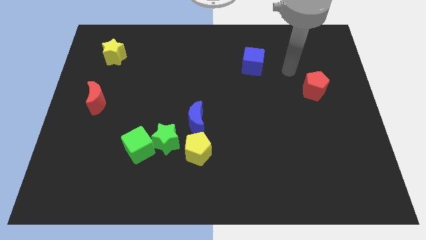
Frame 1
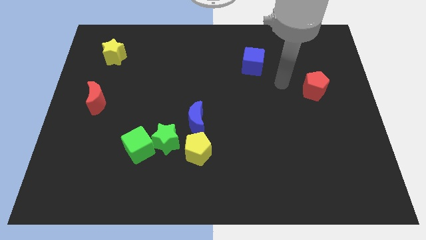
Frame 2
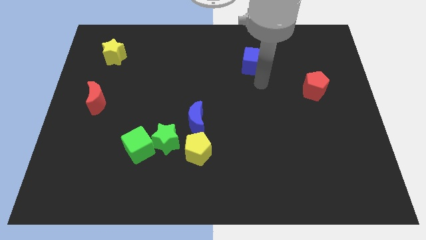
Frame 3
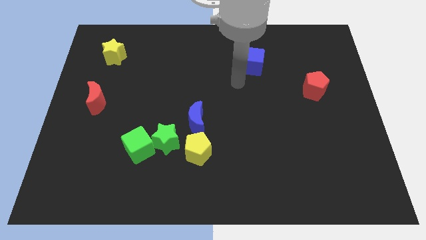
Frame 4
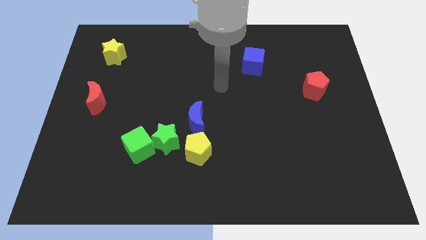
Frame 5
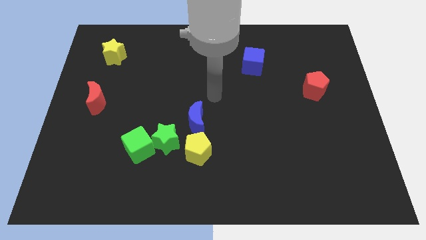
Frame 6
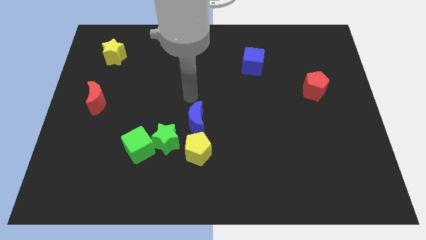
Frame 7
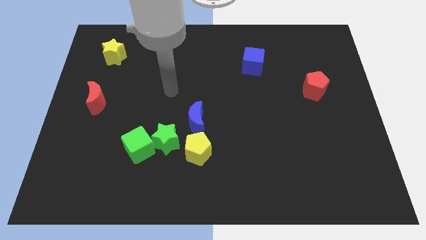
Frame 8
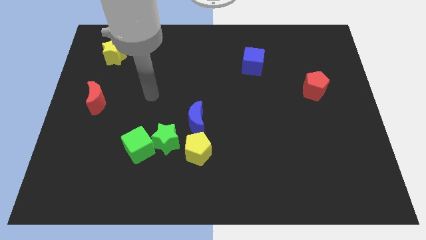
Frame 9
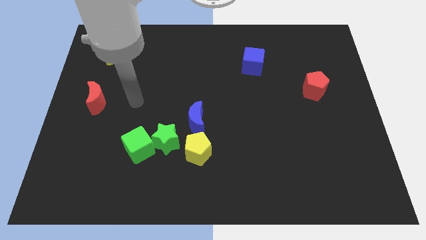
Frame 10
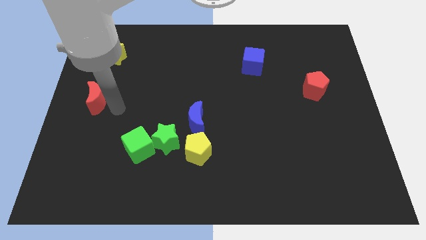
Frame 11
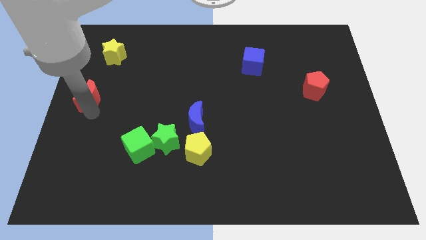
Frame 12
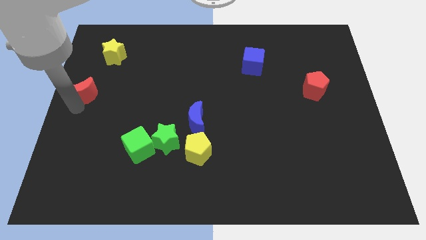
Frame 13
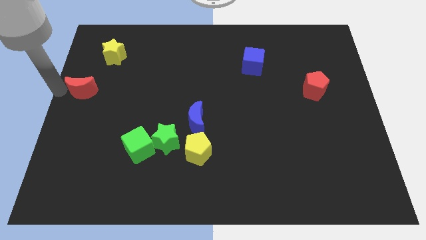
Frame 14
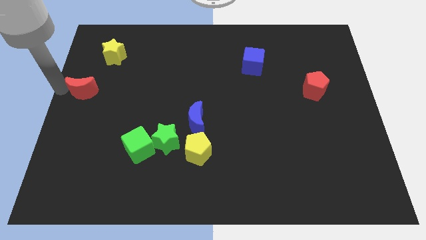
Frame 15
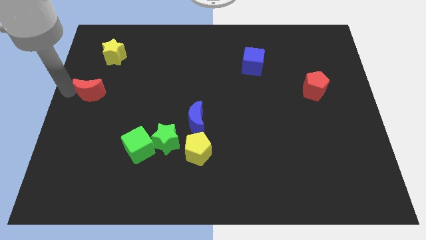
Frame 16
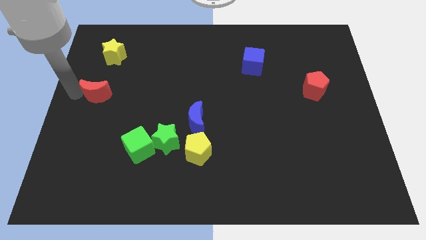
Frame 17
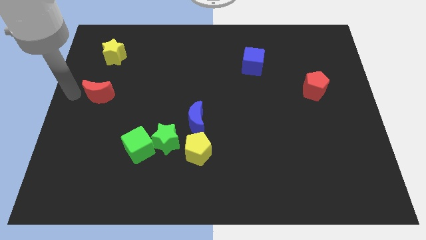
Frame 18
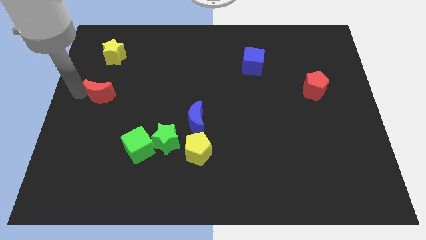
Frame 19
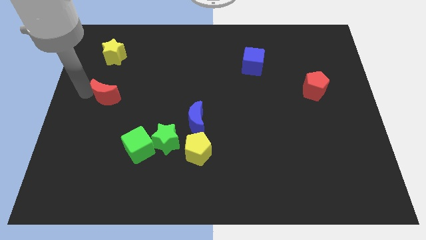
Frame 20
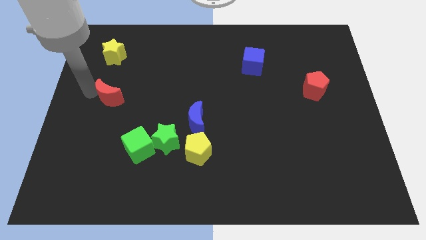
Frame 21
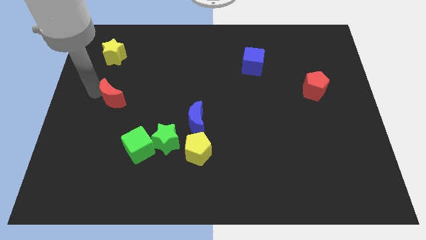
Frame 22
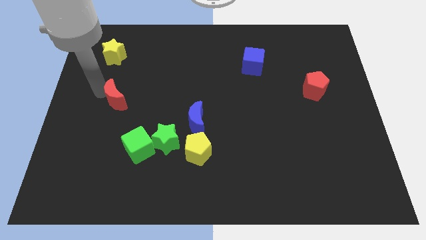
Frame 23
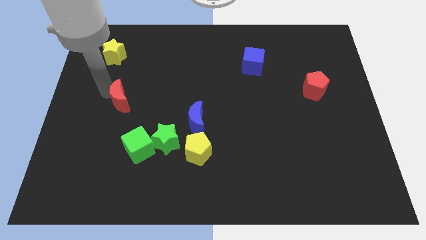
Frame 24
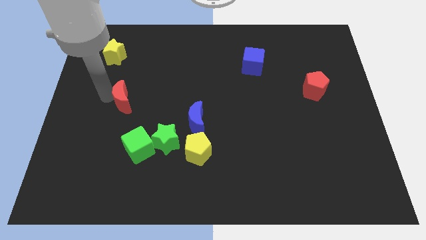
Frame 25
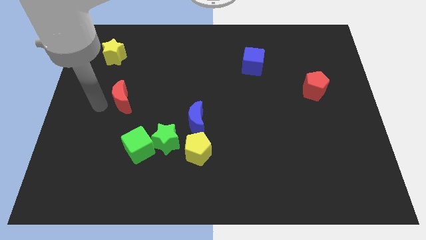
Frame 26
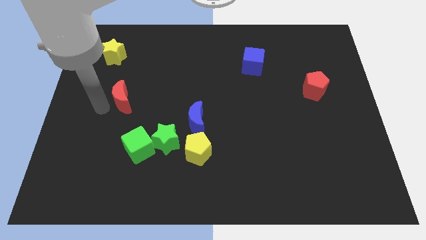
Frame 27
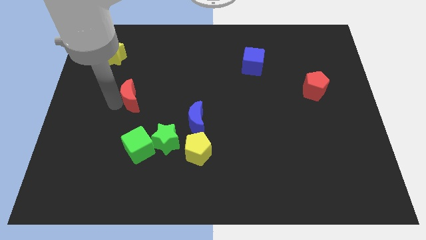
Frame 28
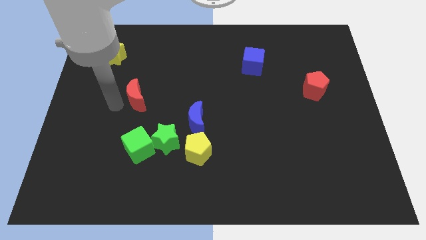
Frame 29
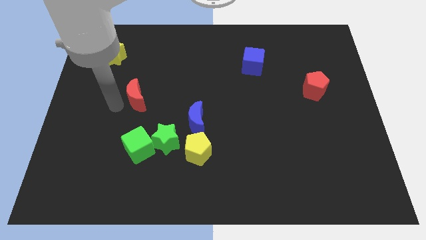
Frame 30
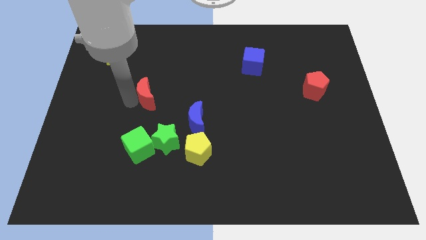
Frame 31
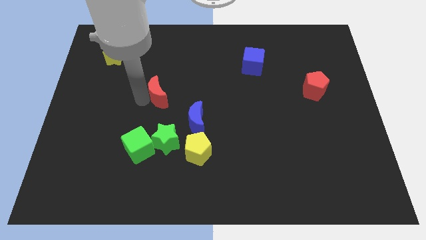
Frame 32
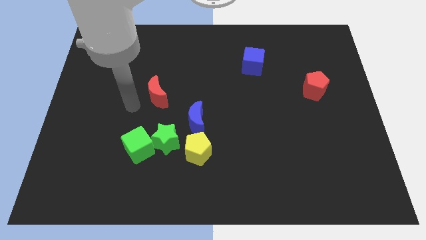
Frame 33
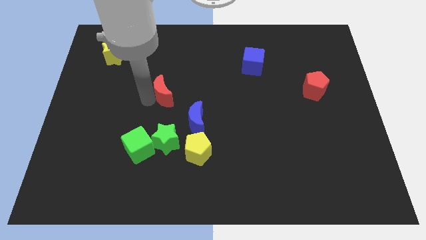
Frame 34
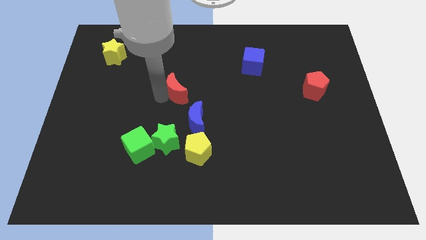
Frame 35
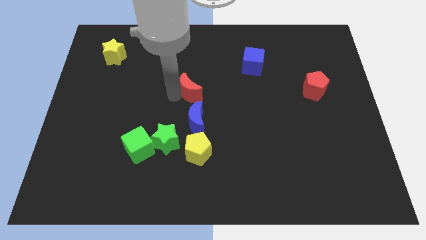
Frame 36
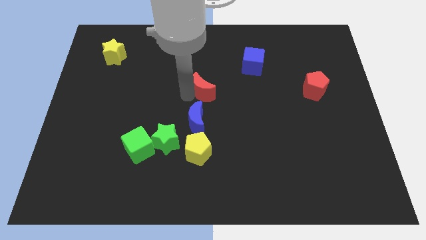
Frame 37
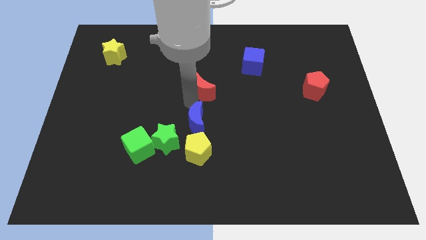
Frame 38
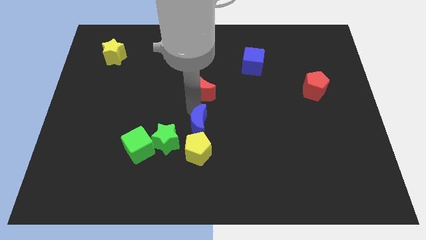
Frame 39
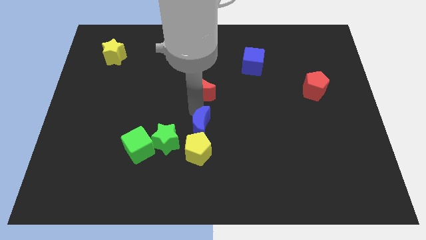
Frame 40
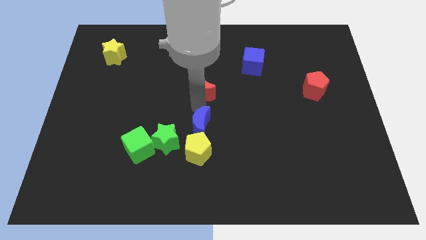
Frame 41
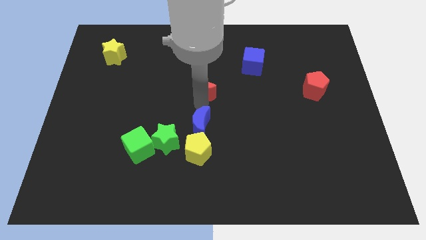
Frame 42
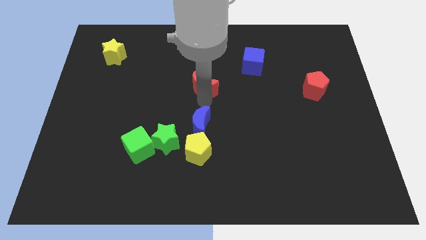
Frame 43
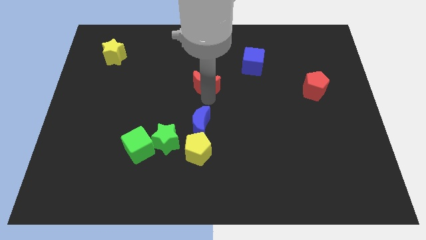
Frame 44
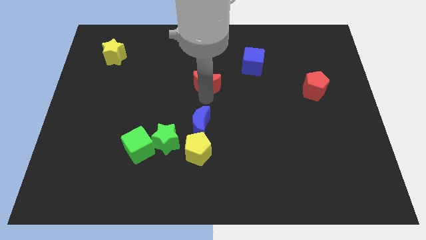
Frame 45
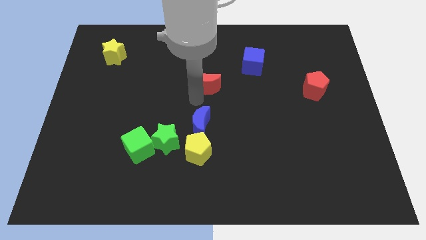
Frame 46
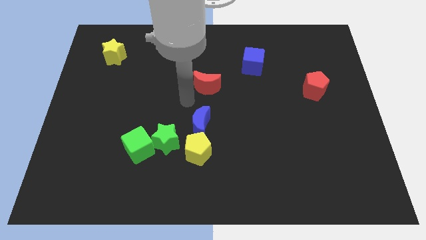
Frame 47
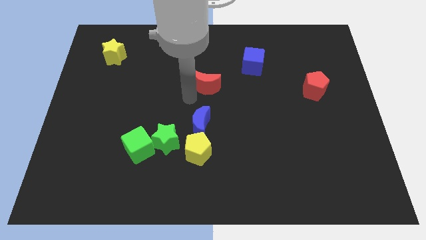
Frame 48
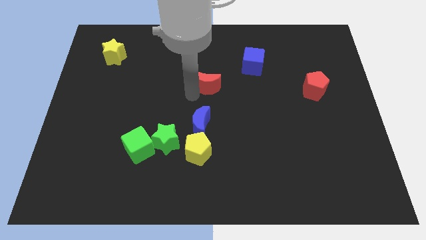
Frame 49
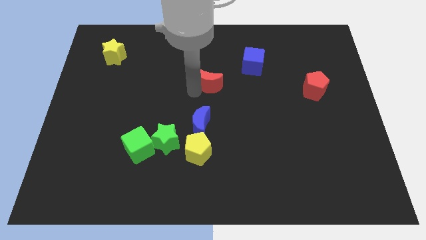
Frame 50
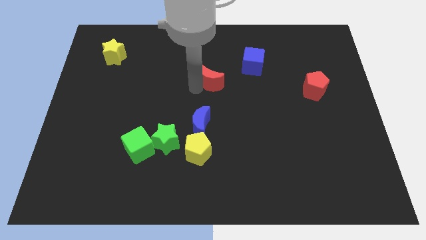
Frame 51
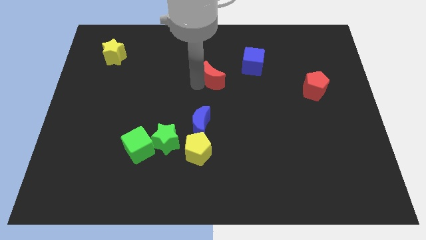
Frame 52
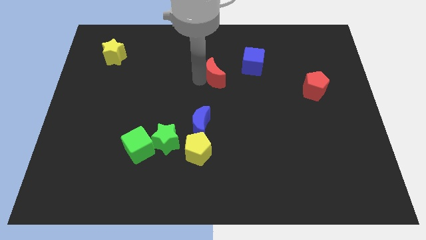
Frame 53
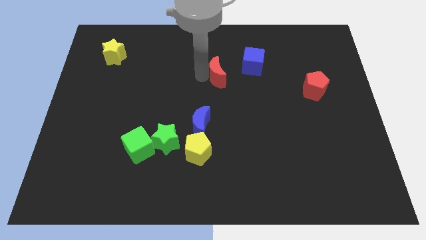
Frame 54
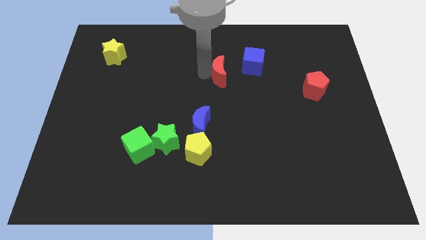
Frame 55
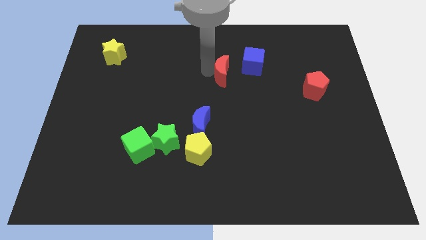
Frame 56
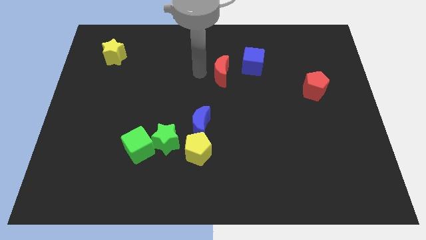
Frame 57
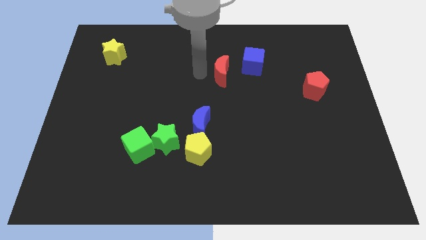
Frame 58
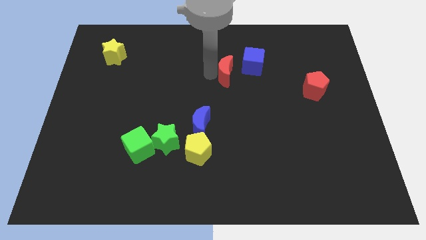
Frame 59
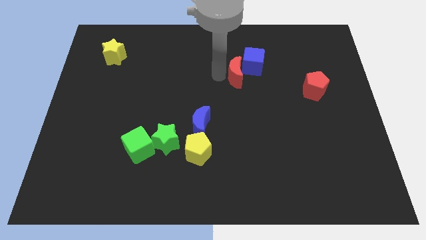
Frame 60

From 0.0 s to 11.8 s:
put the red moon close to the blue cube

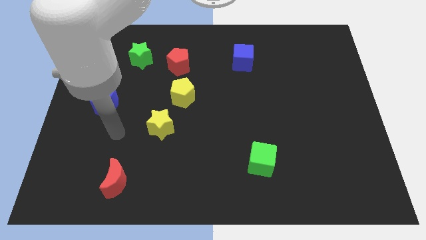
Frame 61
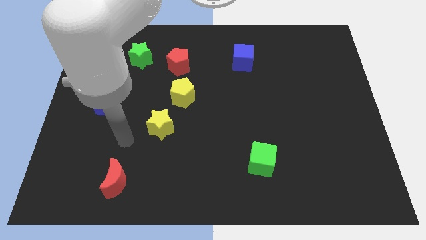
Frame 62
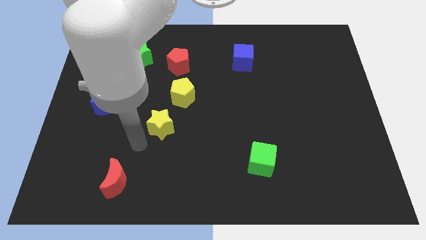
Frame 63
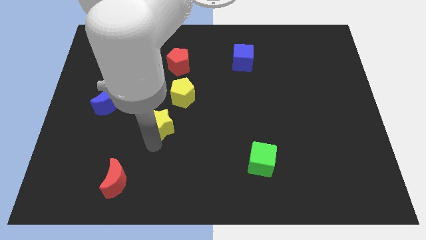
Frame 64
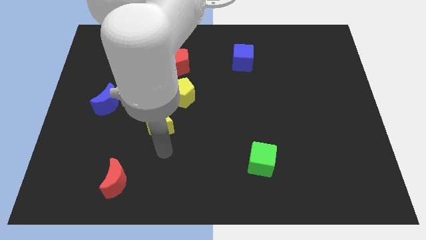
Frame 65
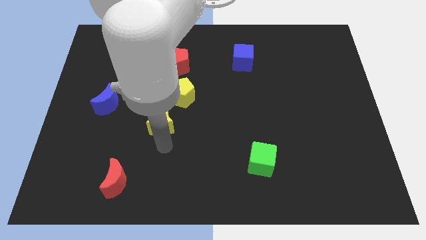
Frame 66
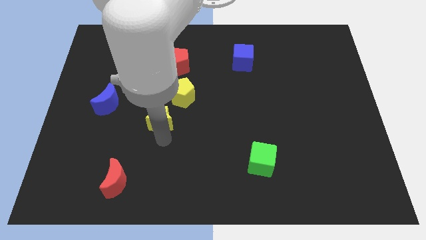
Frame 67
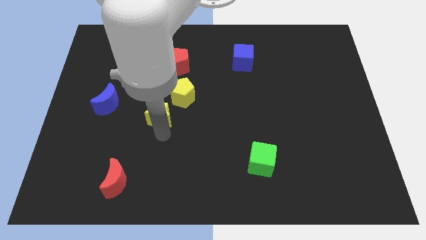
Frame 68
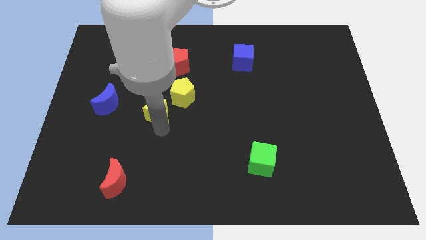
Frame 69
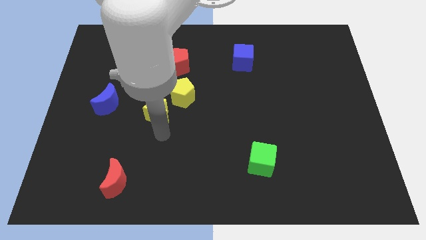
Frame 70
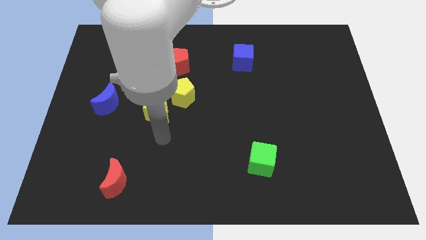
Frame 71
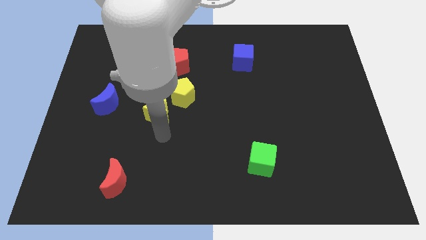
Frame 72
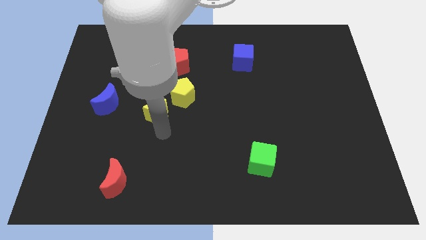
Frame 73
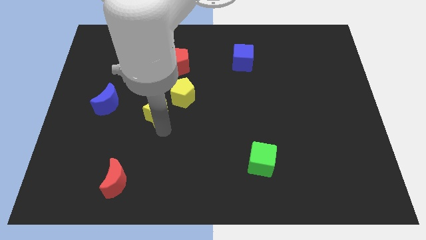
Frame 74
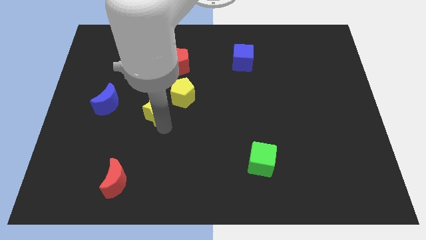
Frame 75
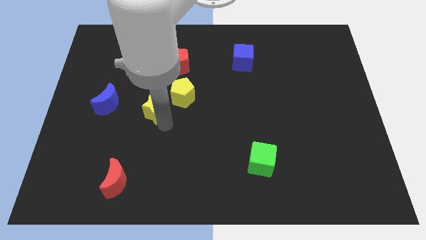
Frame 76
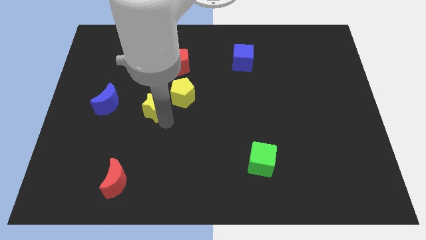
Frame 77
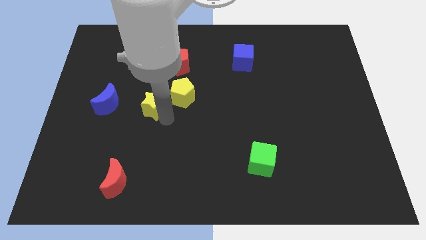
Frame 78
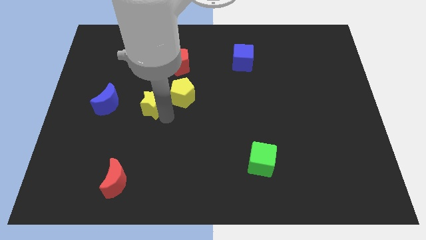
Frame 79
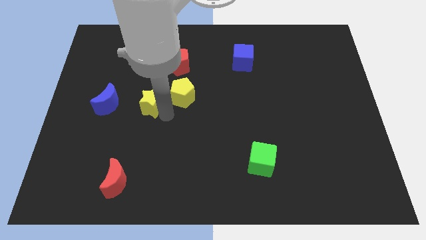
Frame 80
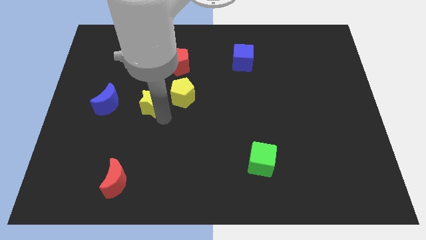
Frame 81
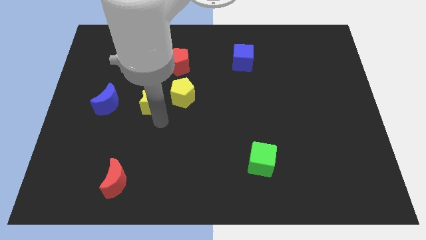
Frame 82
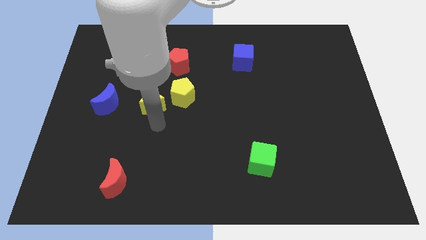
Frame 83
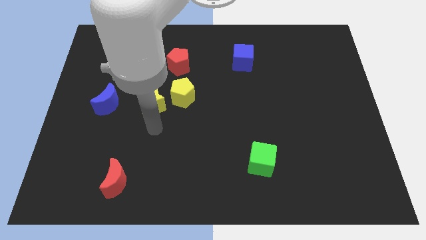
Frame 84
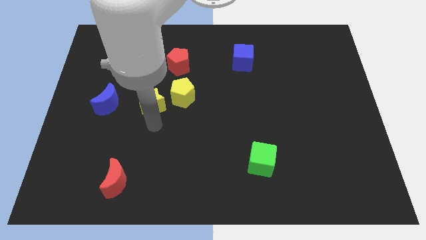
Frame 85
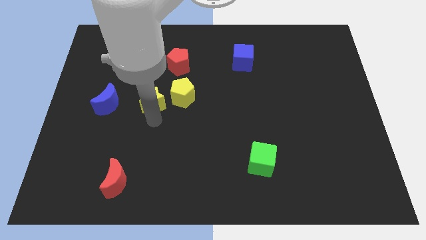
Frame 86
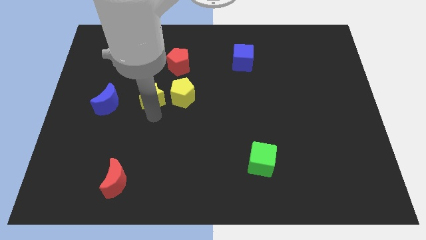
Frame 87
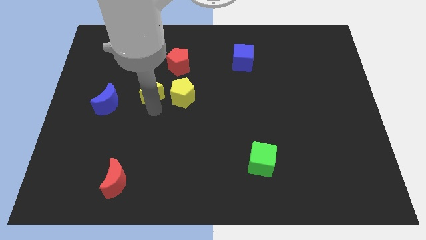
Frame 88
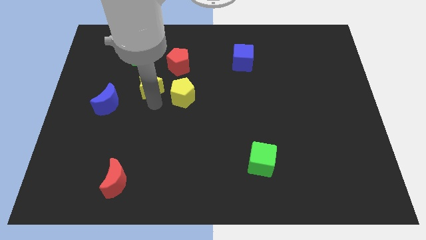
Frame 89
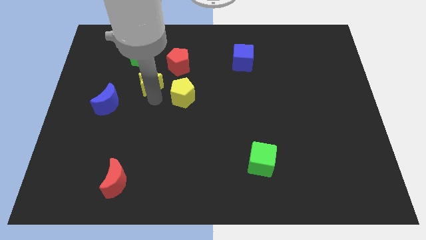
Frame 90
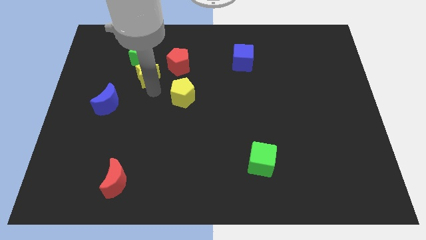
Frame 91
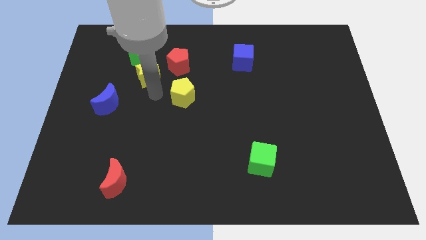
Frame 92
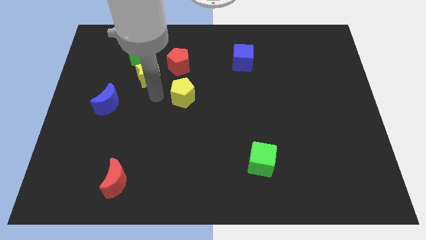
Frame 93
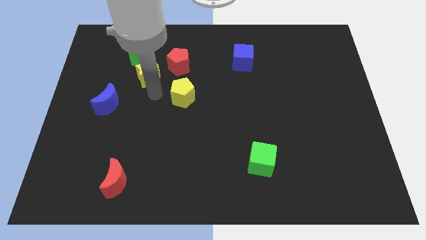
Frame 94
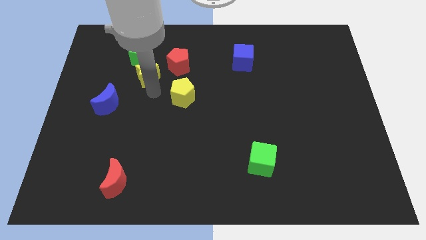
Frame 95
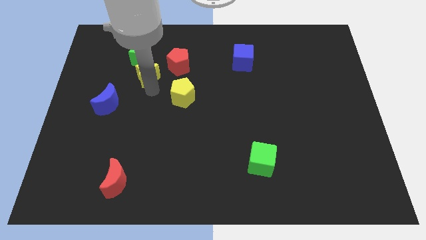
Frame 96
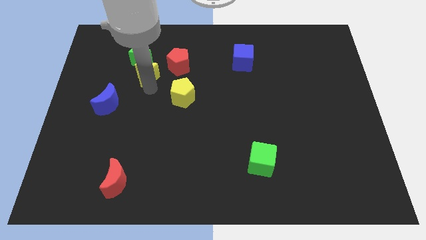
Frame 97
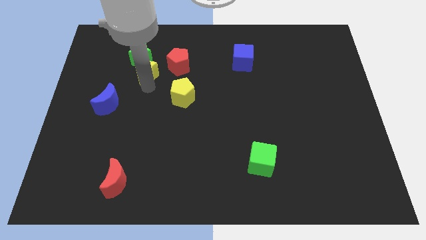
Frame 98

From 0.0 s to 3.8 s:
put the yellow star close to the green star
